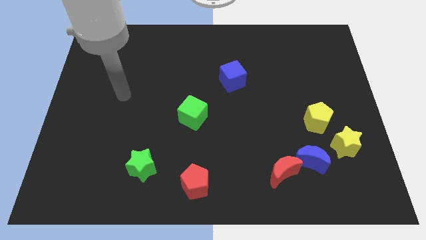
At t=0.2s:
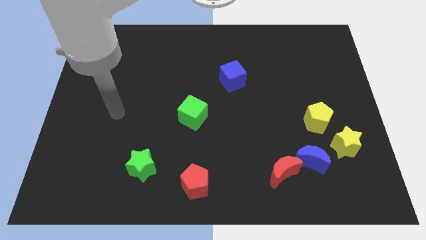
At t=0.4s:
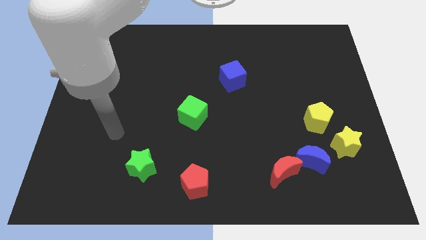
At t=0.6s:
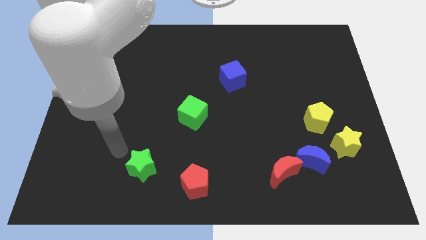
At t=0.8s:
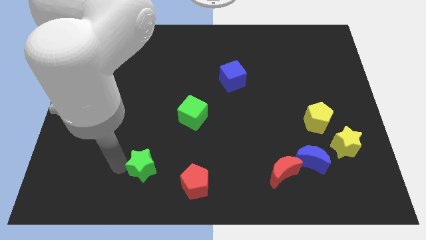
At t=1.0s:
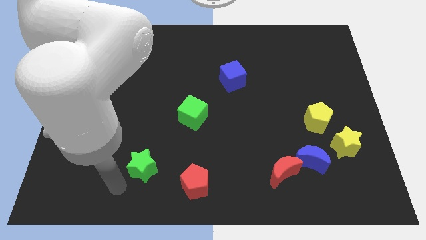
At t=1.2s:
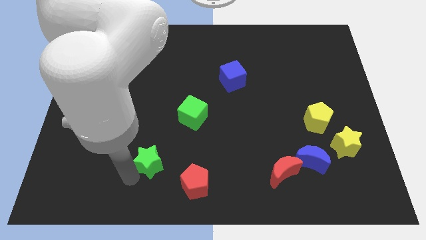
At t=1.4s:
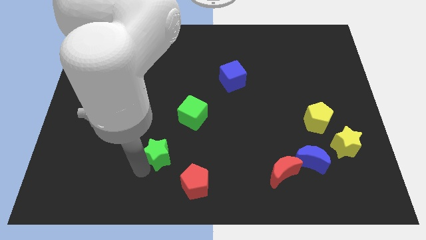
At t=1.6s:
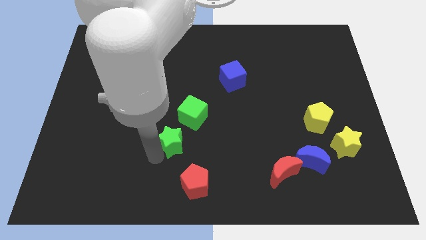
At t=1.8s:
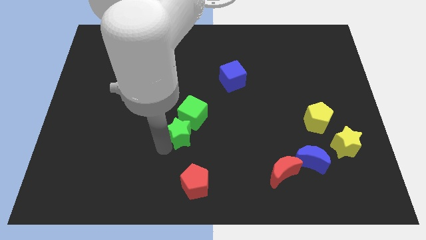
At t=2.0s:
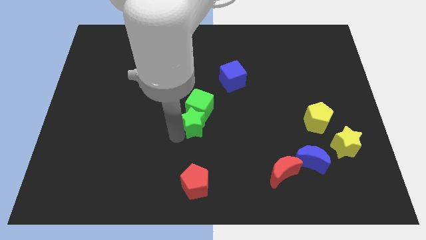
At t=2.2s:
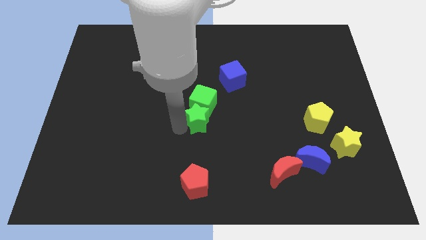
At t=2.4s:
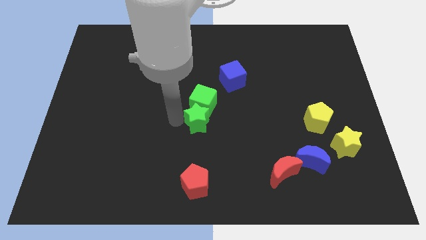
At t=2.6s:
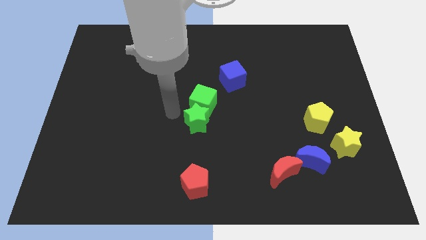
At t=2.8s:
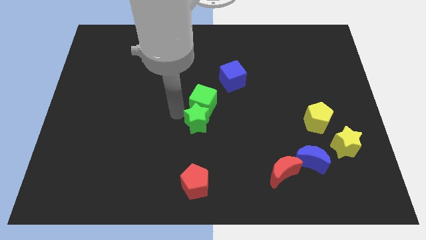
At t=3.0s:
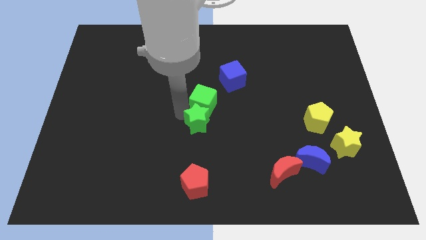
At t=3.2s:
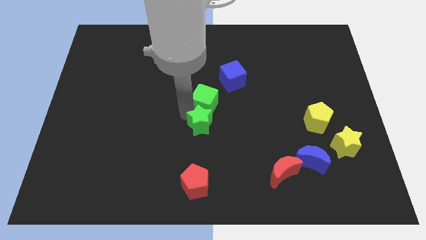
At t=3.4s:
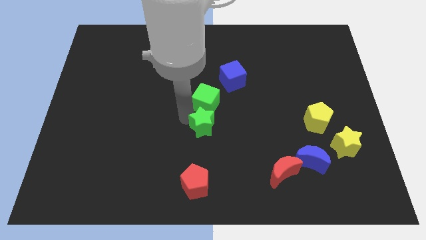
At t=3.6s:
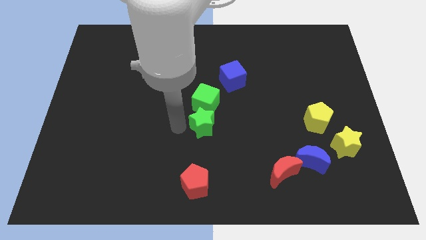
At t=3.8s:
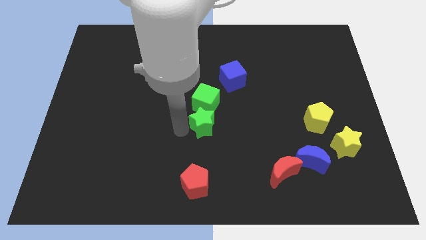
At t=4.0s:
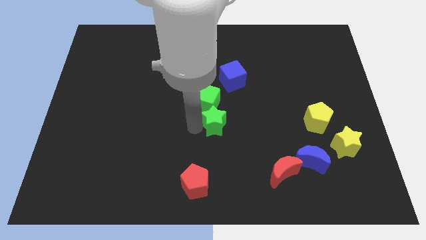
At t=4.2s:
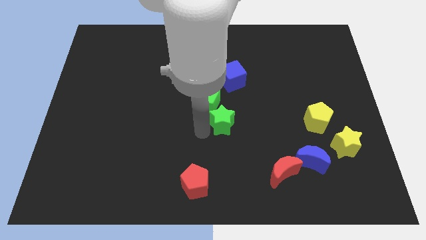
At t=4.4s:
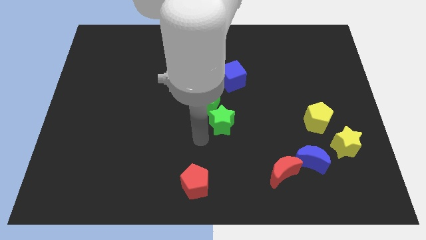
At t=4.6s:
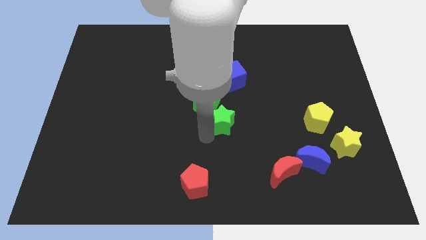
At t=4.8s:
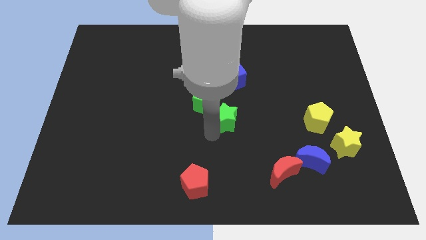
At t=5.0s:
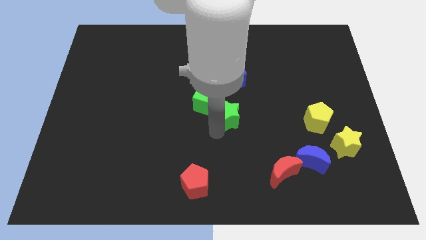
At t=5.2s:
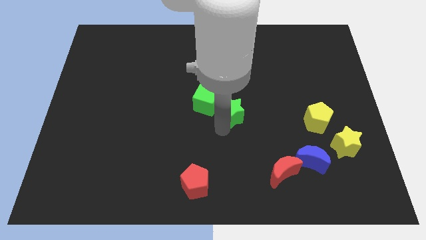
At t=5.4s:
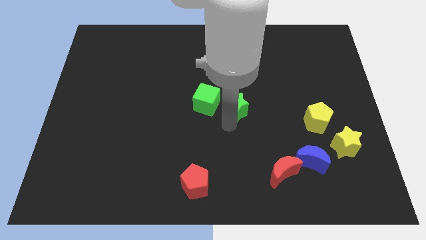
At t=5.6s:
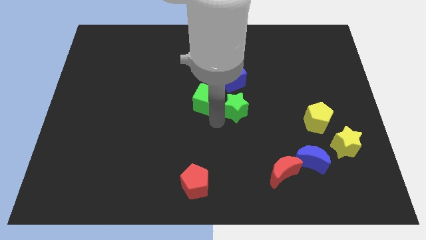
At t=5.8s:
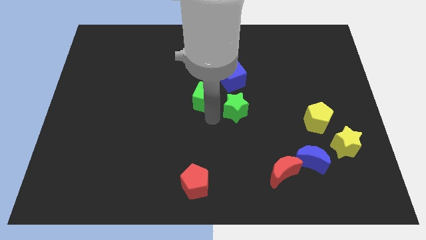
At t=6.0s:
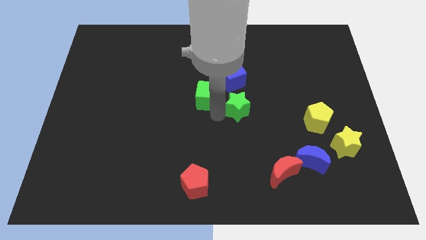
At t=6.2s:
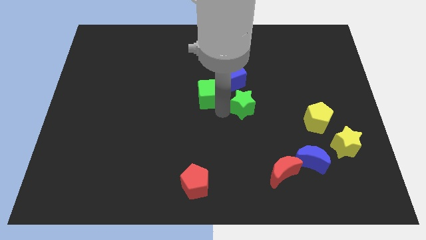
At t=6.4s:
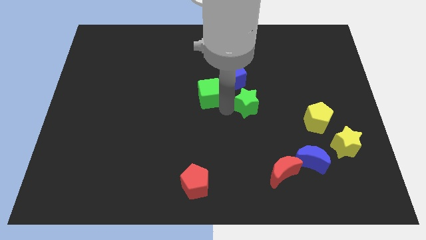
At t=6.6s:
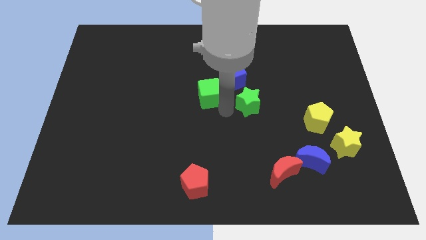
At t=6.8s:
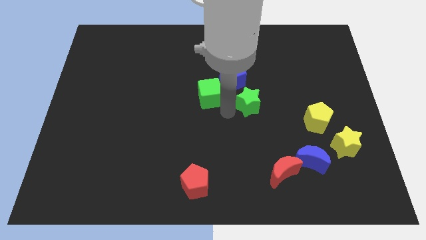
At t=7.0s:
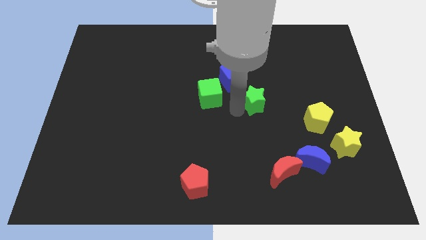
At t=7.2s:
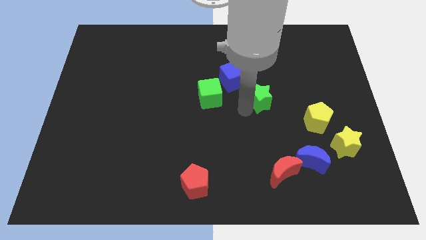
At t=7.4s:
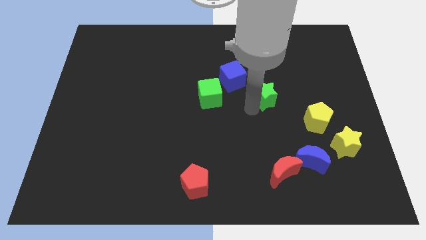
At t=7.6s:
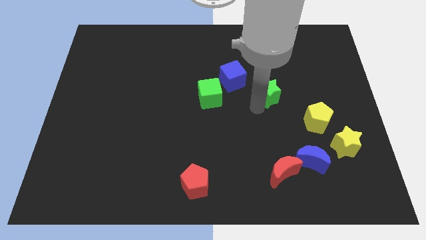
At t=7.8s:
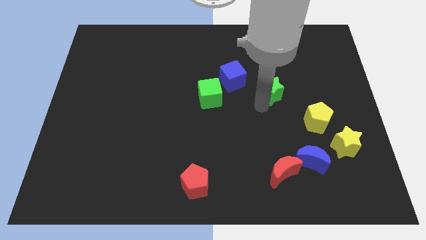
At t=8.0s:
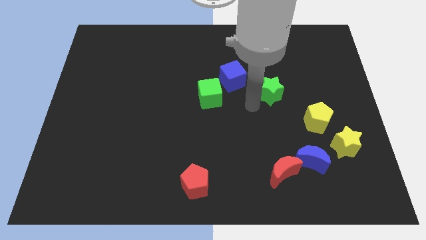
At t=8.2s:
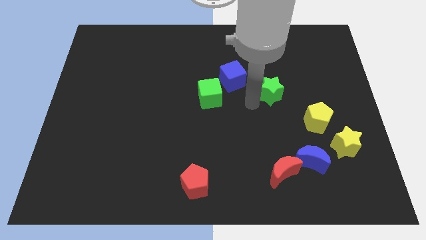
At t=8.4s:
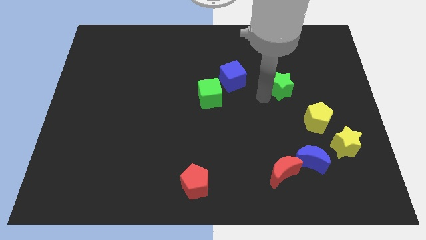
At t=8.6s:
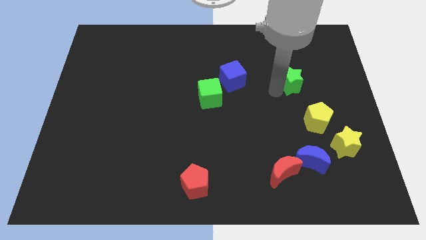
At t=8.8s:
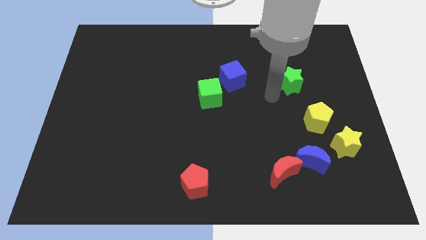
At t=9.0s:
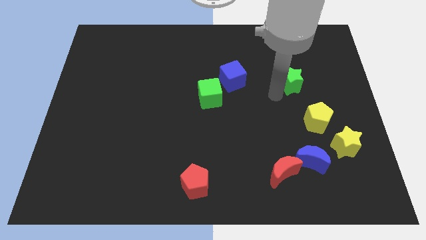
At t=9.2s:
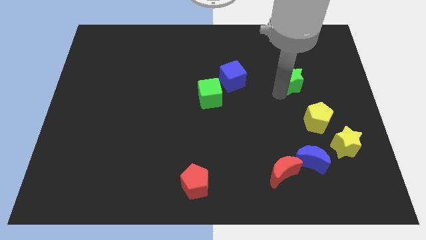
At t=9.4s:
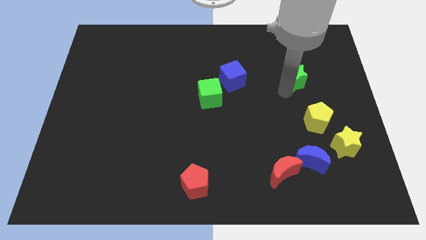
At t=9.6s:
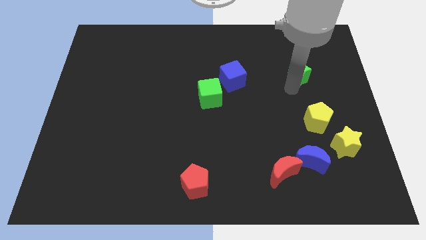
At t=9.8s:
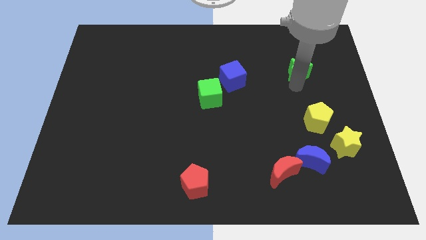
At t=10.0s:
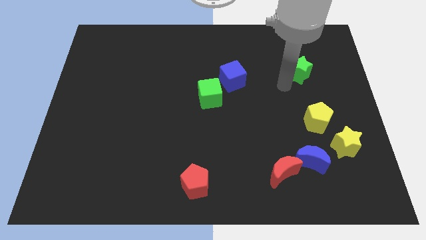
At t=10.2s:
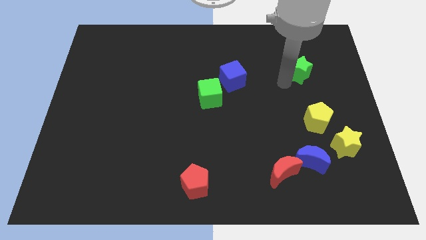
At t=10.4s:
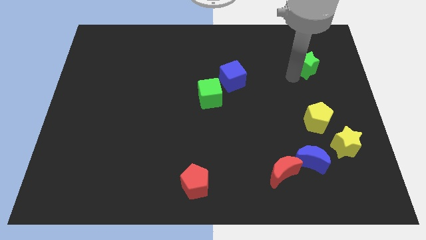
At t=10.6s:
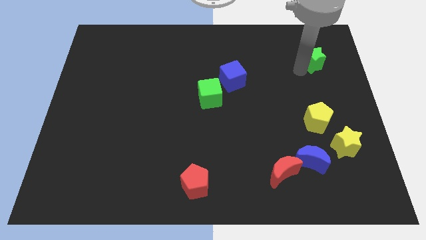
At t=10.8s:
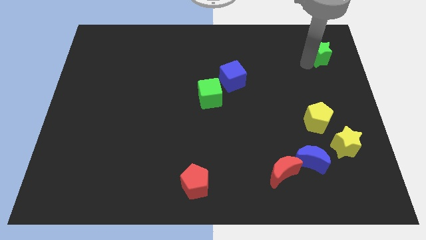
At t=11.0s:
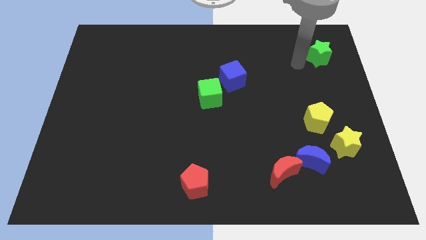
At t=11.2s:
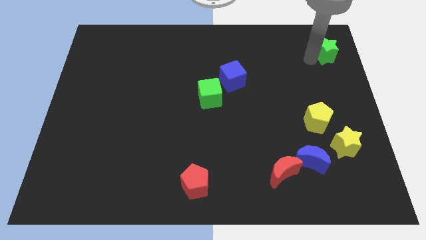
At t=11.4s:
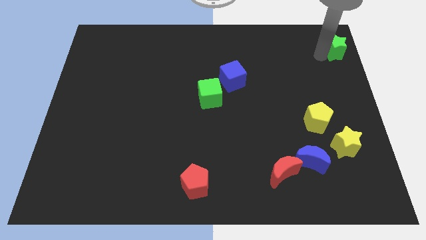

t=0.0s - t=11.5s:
put the green star to the top right of the board

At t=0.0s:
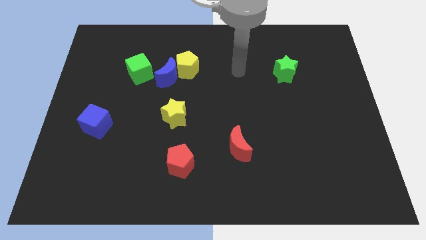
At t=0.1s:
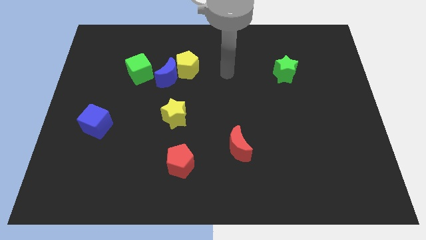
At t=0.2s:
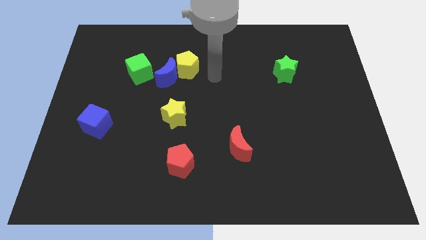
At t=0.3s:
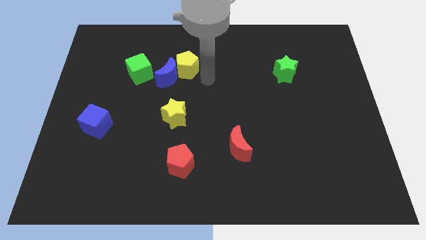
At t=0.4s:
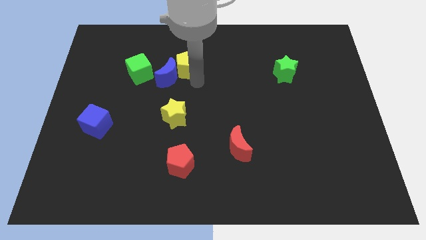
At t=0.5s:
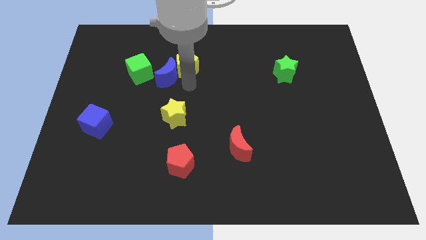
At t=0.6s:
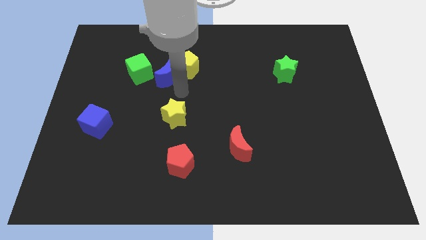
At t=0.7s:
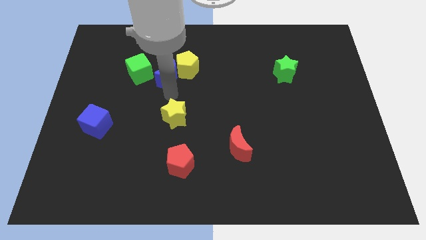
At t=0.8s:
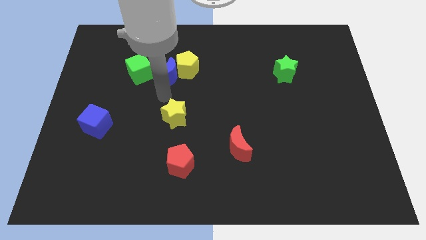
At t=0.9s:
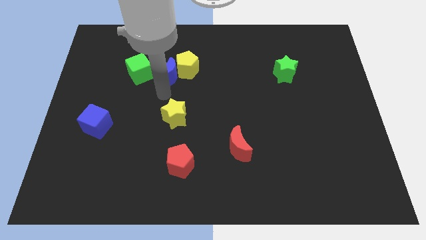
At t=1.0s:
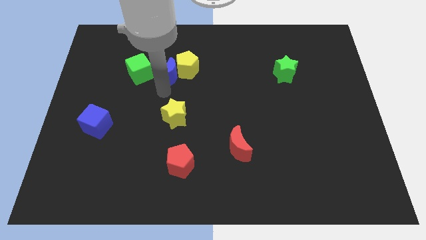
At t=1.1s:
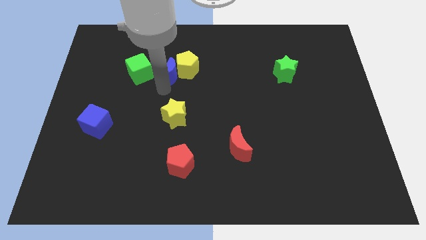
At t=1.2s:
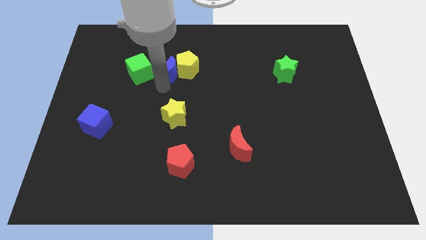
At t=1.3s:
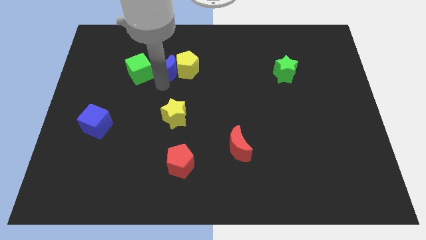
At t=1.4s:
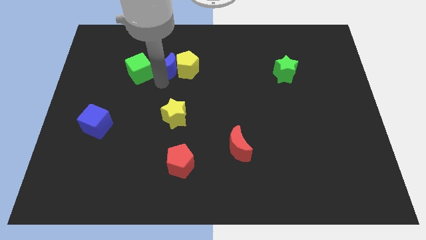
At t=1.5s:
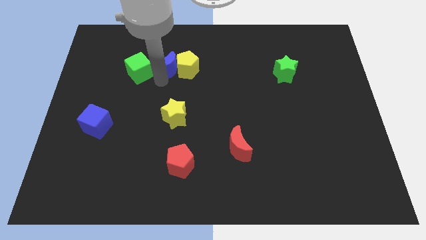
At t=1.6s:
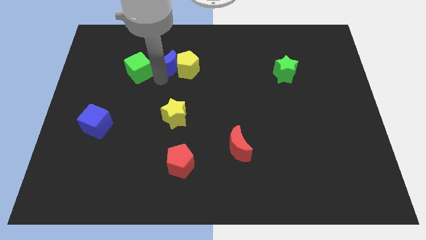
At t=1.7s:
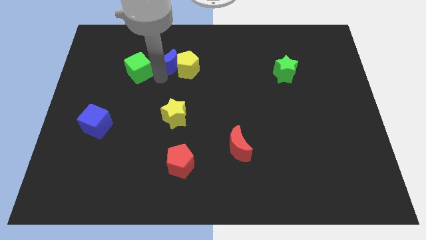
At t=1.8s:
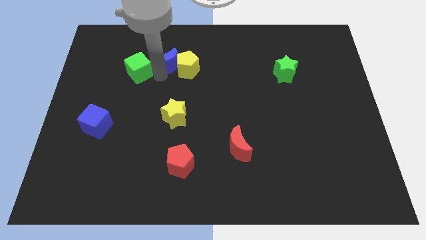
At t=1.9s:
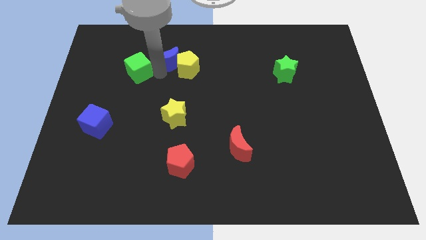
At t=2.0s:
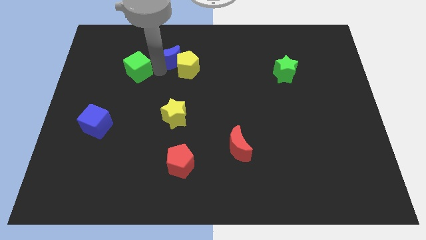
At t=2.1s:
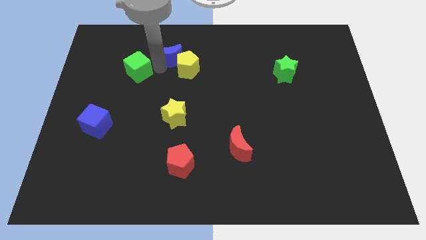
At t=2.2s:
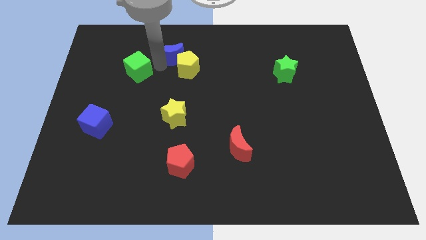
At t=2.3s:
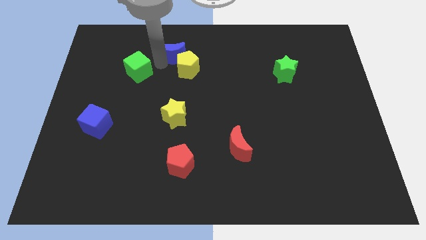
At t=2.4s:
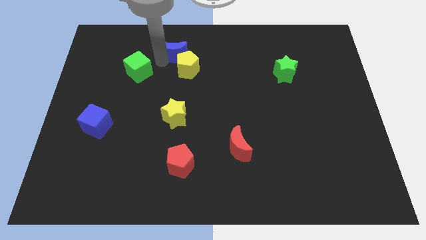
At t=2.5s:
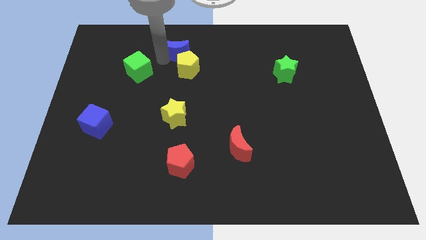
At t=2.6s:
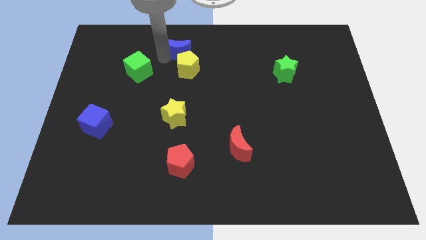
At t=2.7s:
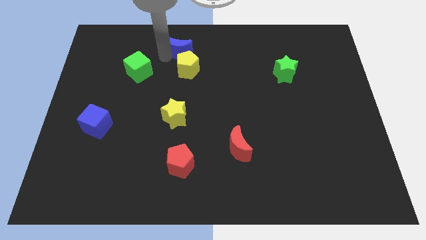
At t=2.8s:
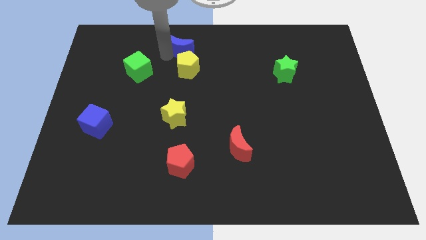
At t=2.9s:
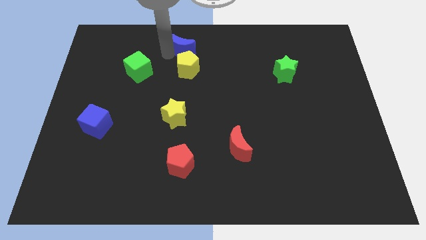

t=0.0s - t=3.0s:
put the blue moon to the top
